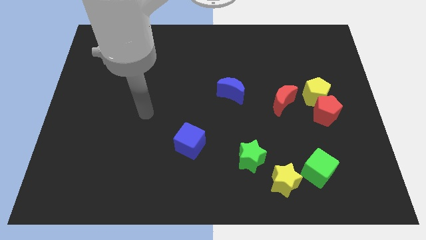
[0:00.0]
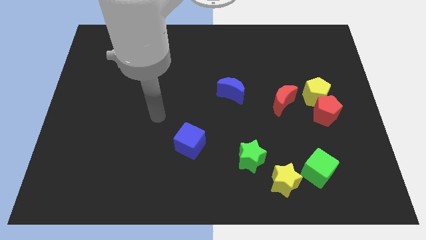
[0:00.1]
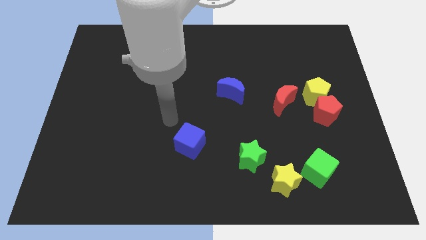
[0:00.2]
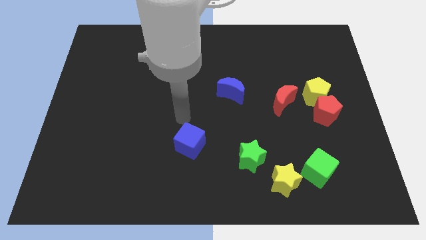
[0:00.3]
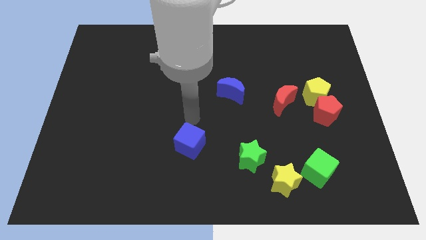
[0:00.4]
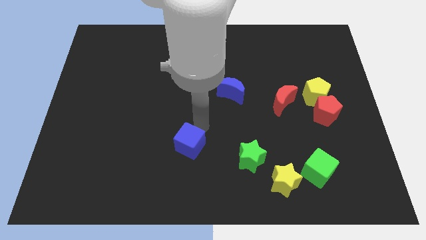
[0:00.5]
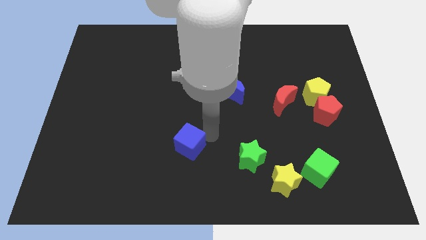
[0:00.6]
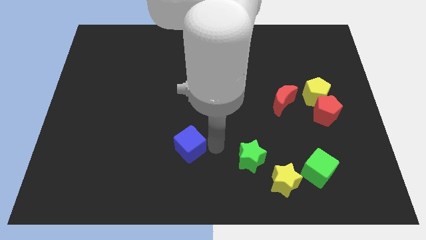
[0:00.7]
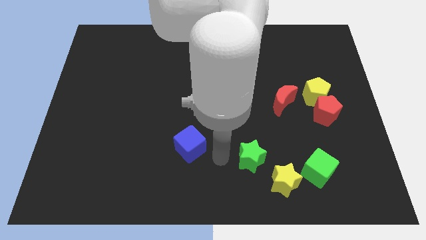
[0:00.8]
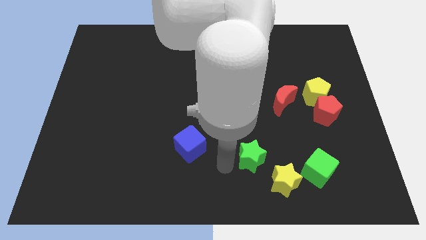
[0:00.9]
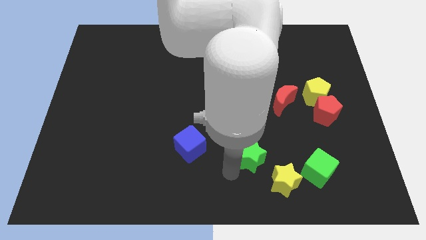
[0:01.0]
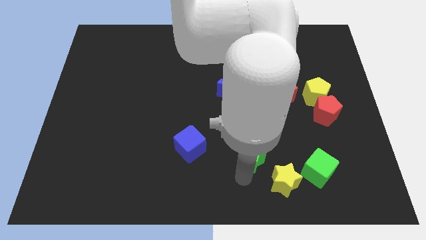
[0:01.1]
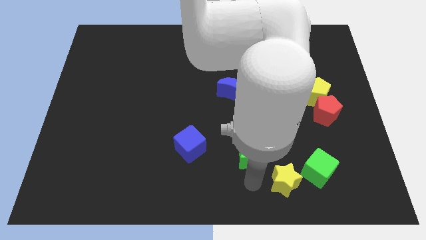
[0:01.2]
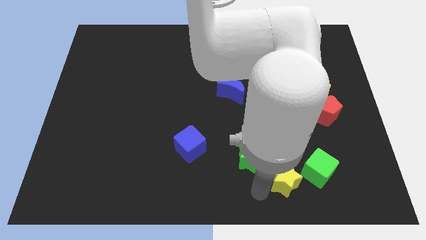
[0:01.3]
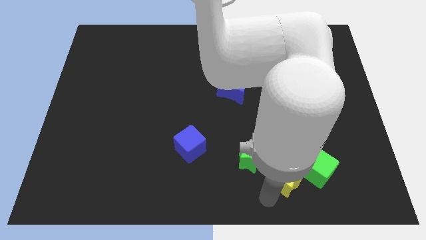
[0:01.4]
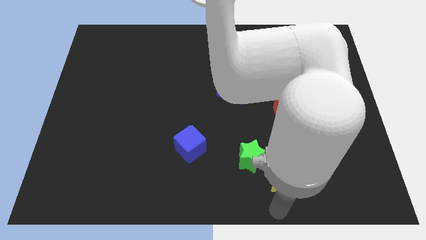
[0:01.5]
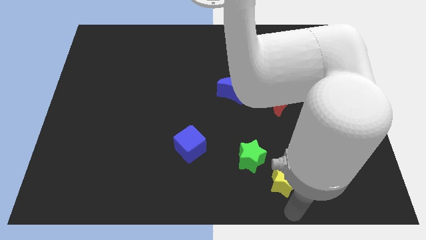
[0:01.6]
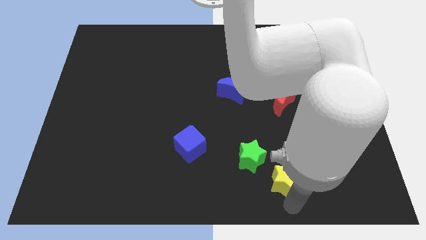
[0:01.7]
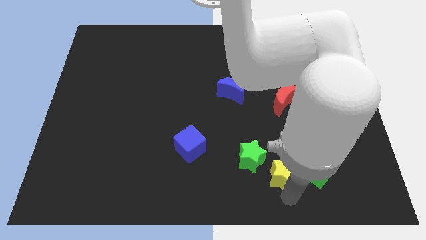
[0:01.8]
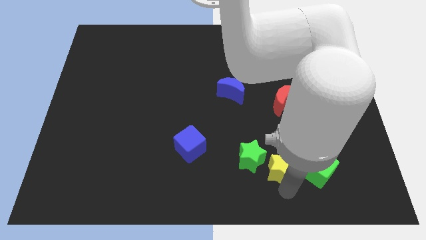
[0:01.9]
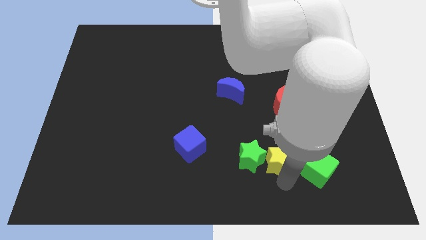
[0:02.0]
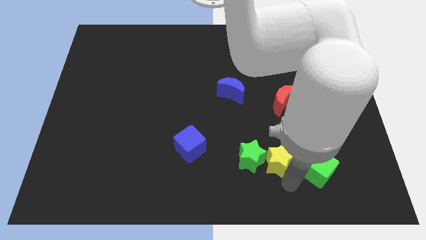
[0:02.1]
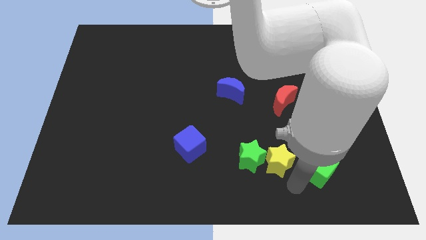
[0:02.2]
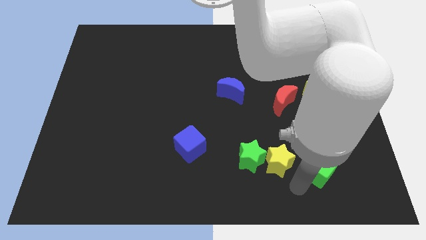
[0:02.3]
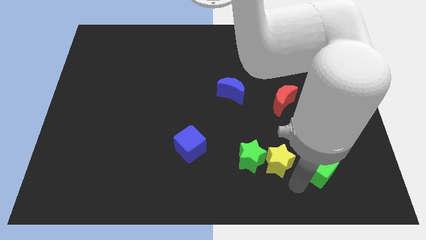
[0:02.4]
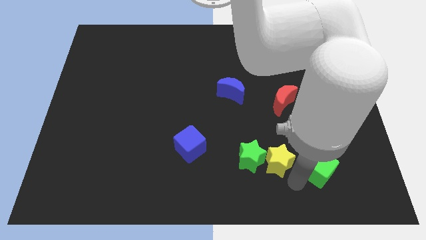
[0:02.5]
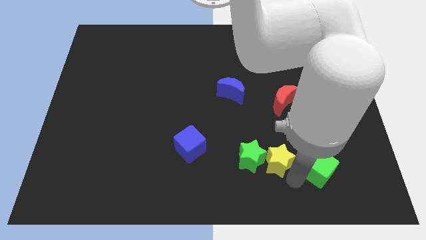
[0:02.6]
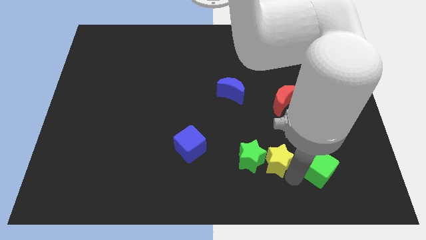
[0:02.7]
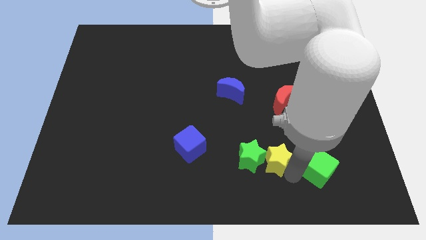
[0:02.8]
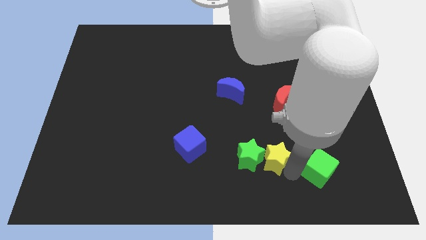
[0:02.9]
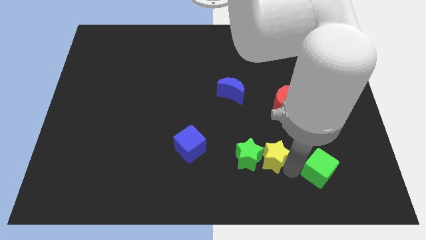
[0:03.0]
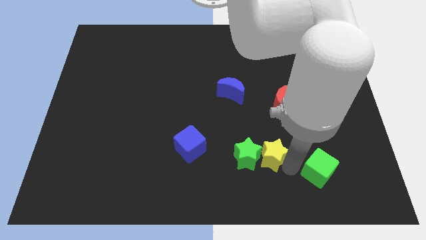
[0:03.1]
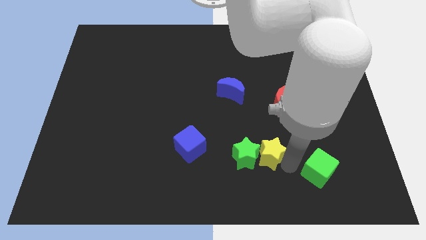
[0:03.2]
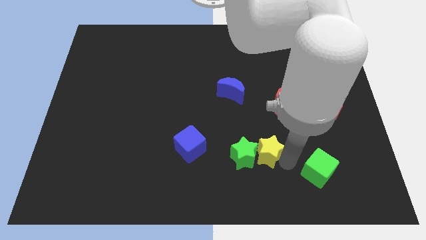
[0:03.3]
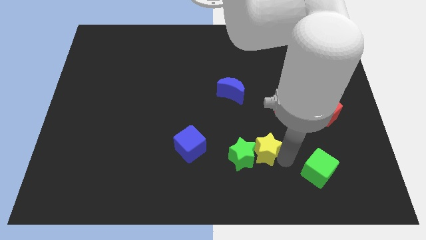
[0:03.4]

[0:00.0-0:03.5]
move the yellow star upwards and then to the left a bit

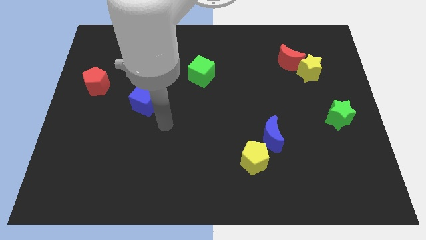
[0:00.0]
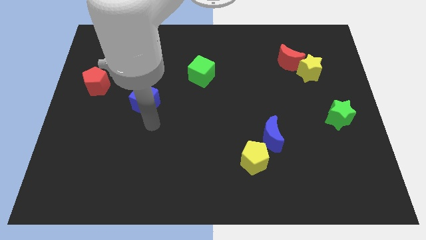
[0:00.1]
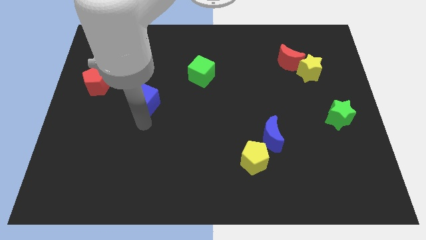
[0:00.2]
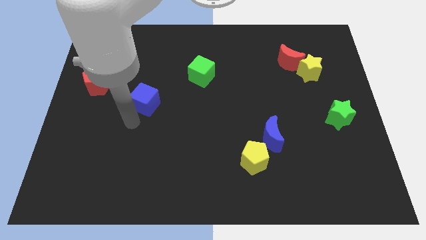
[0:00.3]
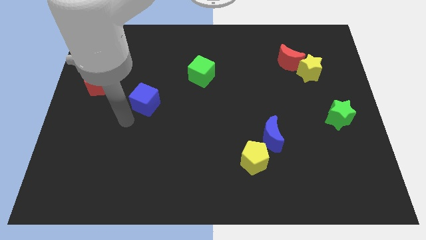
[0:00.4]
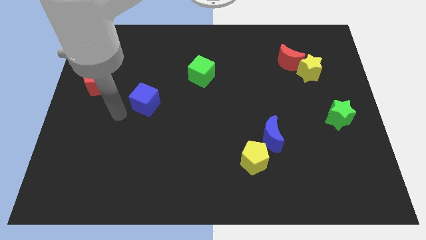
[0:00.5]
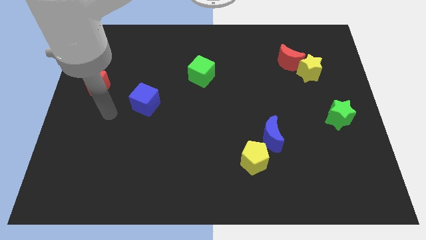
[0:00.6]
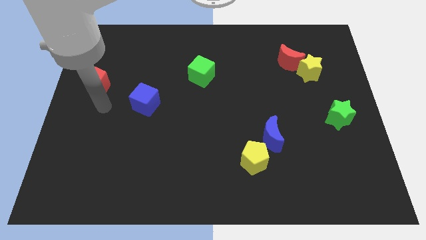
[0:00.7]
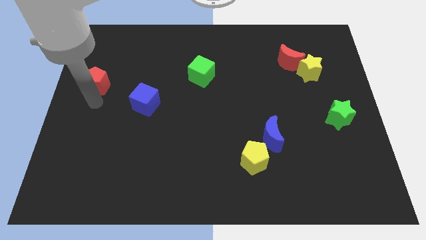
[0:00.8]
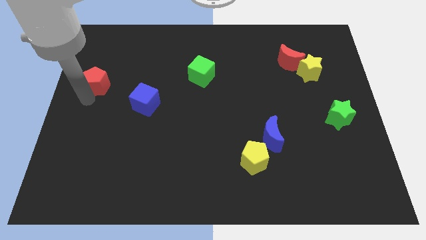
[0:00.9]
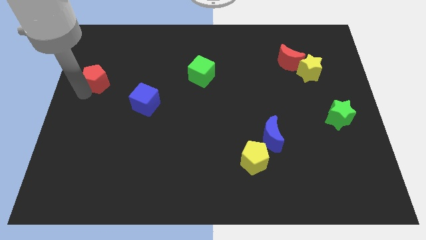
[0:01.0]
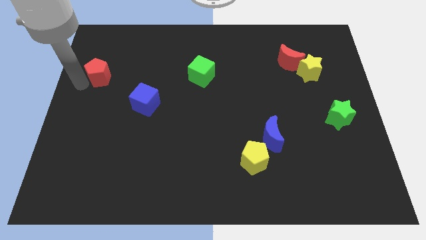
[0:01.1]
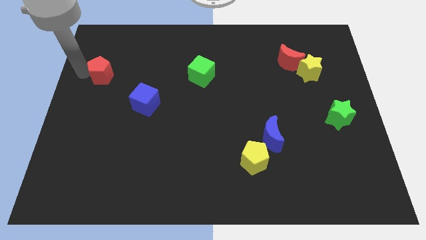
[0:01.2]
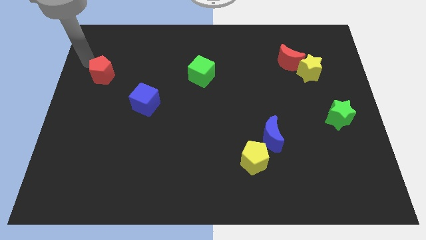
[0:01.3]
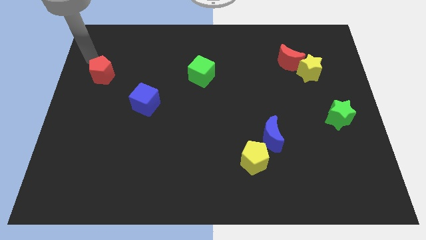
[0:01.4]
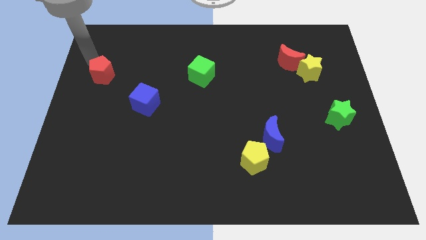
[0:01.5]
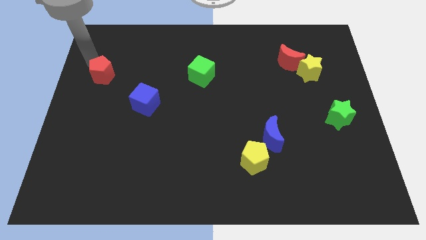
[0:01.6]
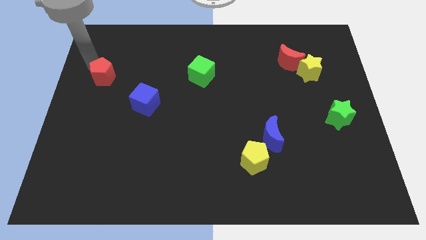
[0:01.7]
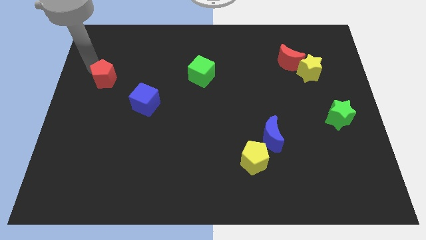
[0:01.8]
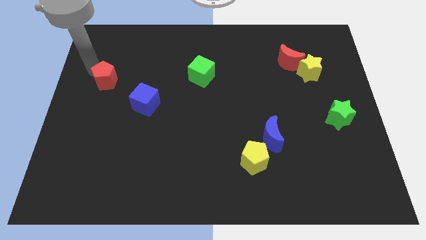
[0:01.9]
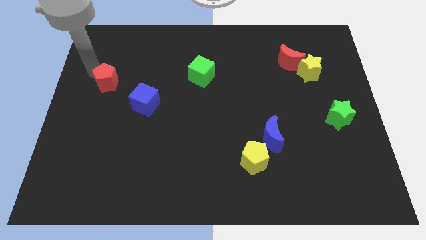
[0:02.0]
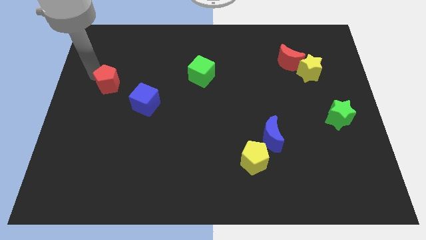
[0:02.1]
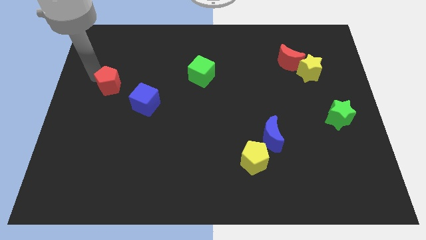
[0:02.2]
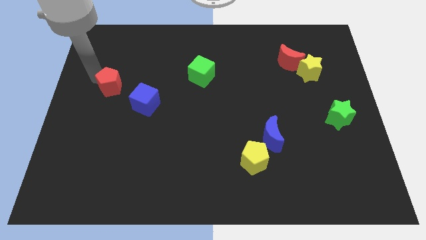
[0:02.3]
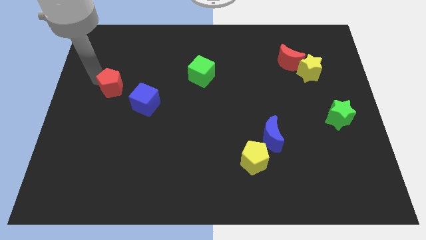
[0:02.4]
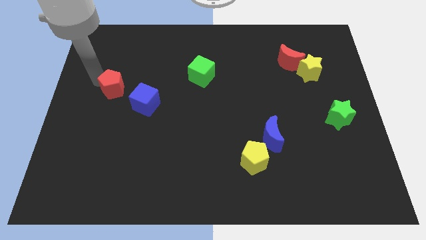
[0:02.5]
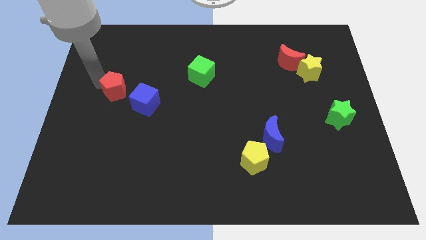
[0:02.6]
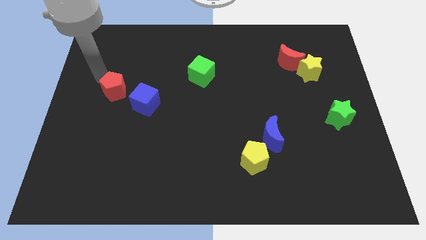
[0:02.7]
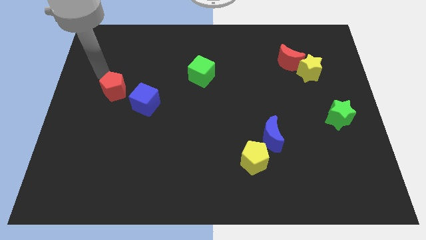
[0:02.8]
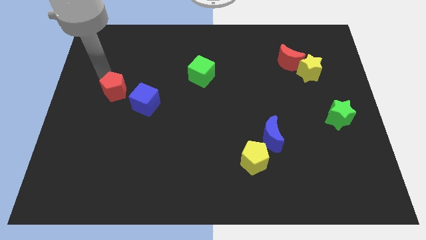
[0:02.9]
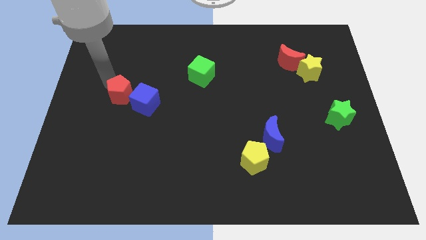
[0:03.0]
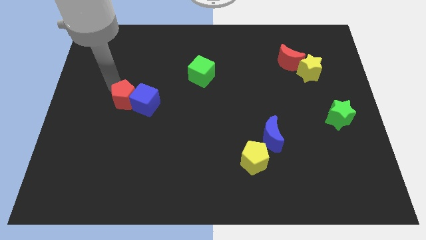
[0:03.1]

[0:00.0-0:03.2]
slide the red pentagon downwards and right slightly

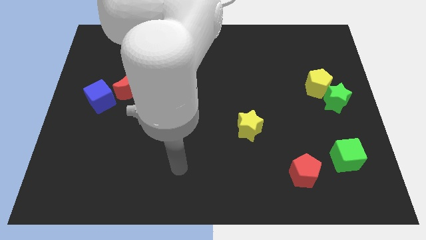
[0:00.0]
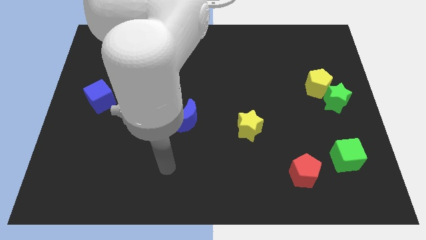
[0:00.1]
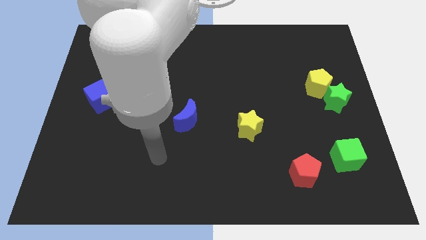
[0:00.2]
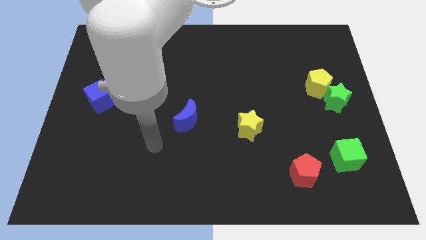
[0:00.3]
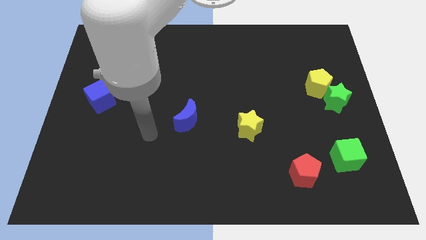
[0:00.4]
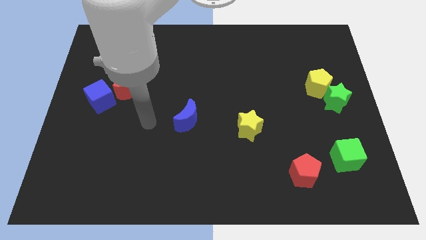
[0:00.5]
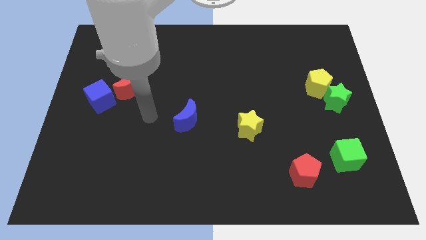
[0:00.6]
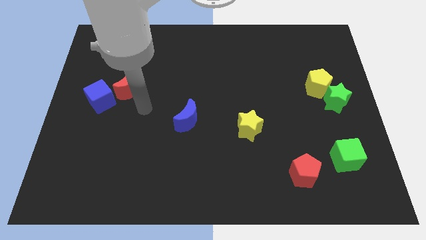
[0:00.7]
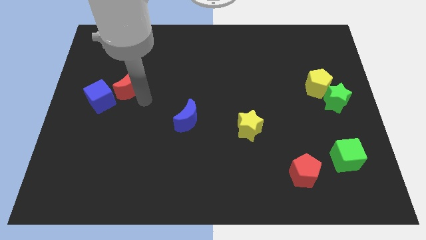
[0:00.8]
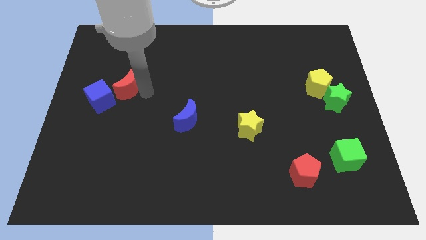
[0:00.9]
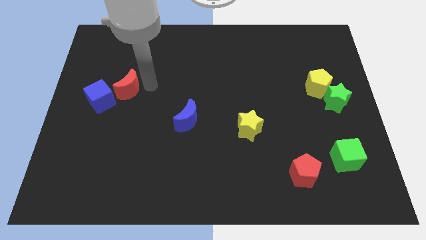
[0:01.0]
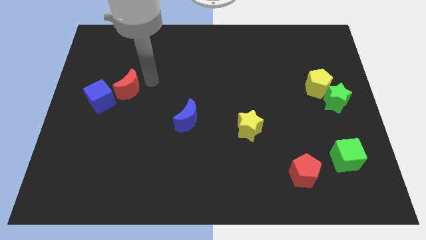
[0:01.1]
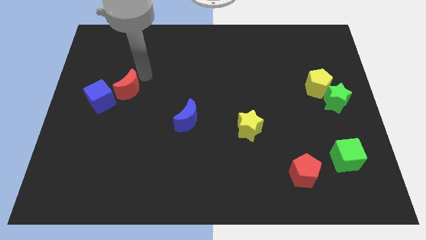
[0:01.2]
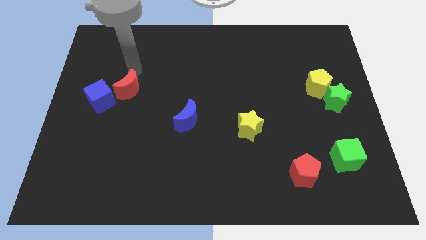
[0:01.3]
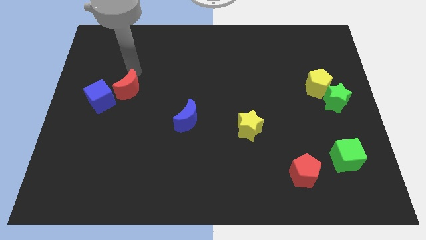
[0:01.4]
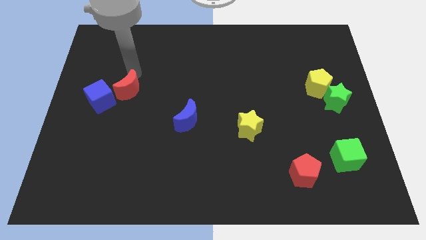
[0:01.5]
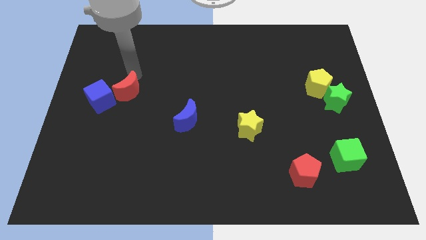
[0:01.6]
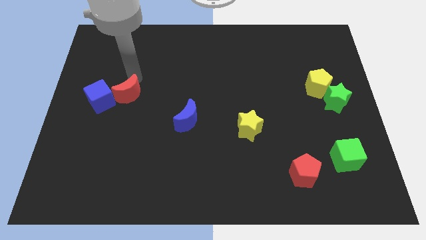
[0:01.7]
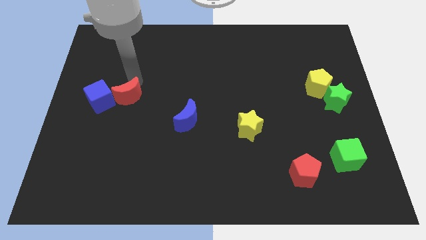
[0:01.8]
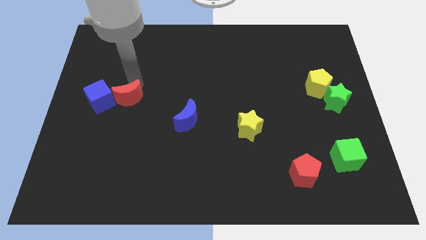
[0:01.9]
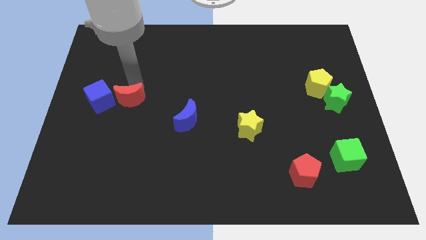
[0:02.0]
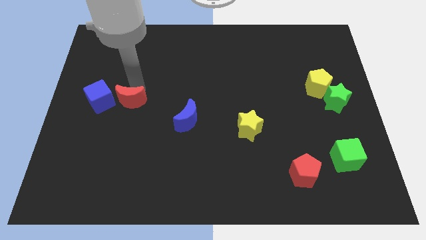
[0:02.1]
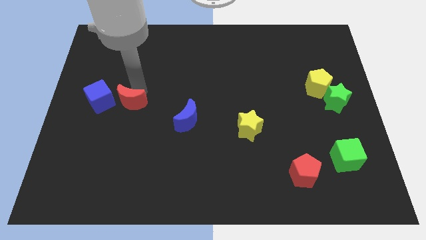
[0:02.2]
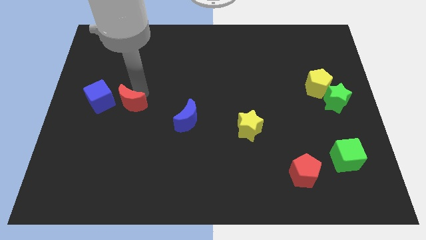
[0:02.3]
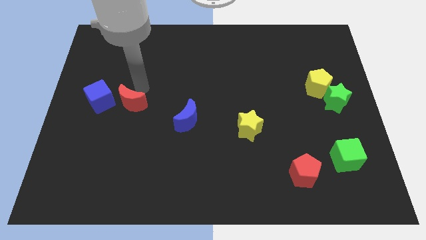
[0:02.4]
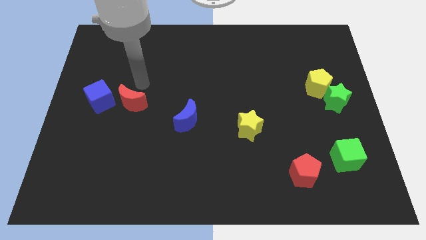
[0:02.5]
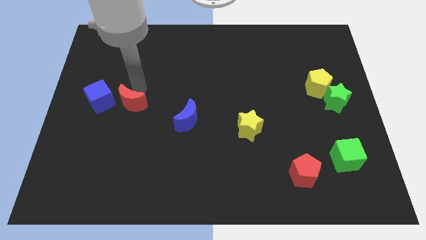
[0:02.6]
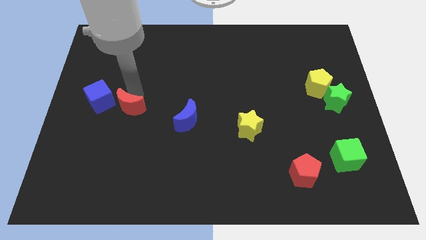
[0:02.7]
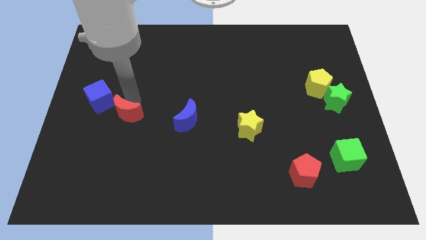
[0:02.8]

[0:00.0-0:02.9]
move the red moon a little bit downwards
